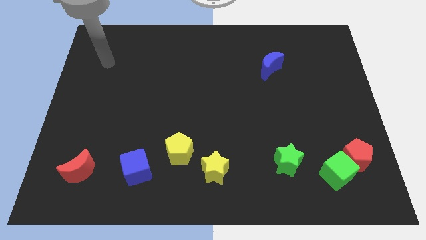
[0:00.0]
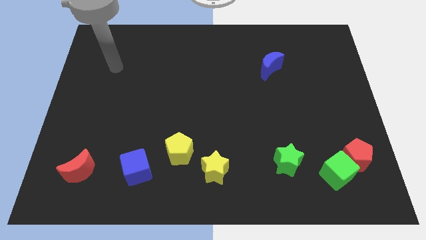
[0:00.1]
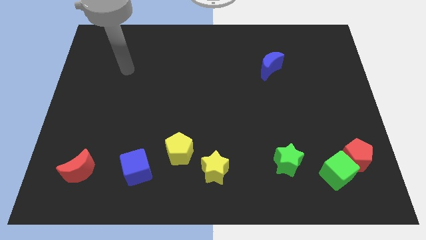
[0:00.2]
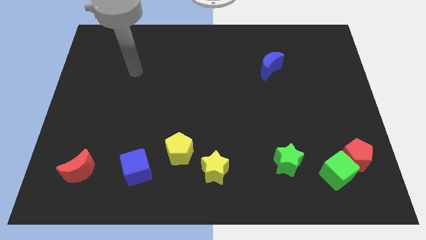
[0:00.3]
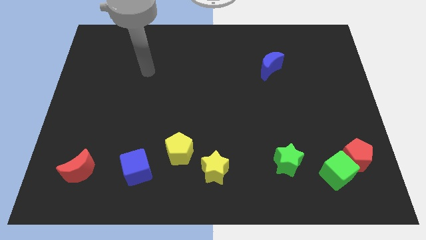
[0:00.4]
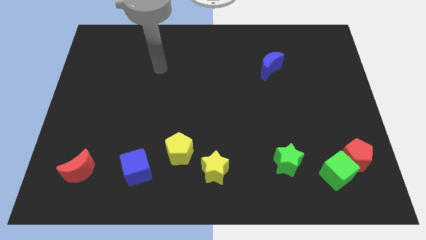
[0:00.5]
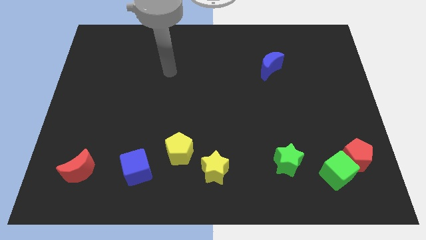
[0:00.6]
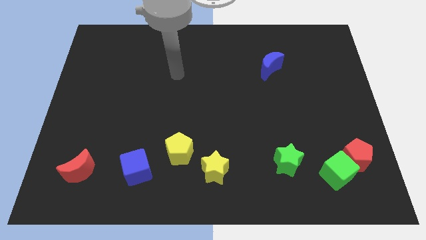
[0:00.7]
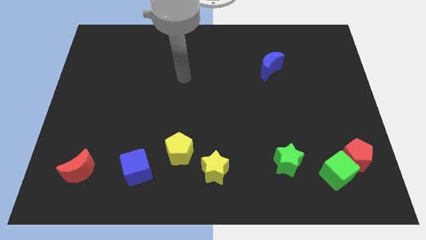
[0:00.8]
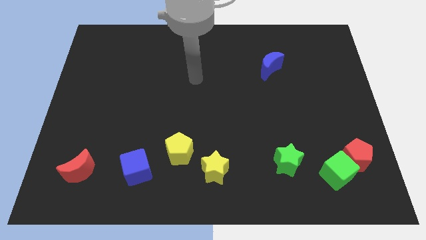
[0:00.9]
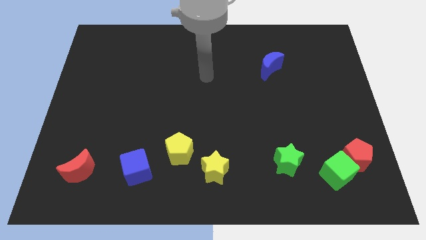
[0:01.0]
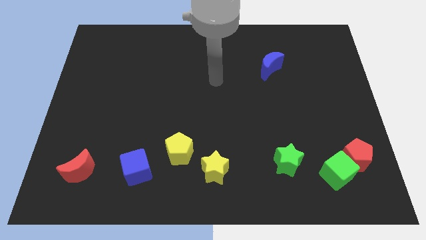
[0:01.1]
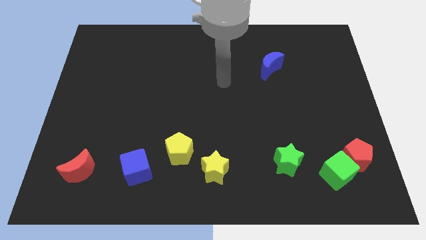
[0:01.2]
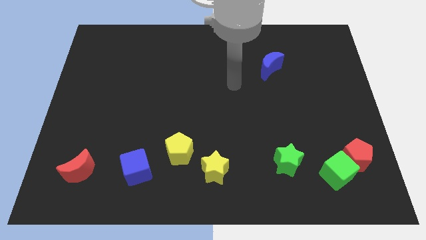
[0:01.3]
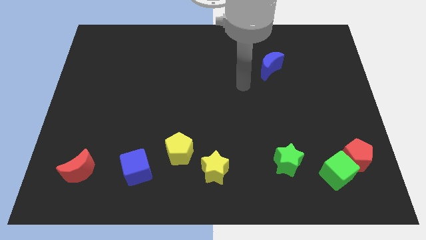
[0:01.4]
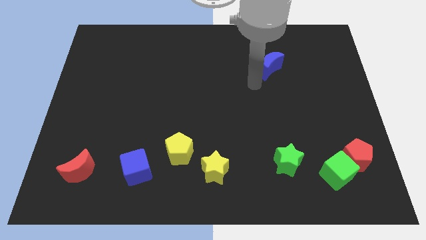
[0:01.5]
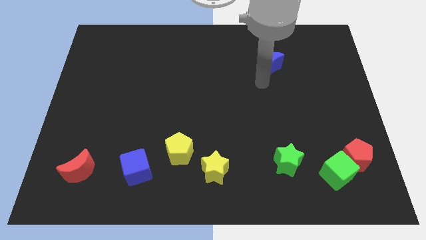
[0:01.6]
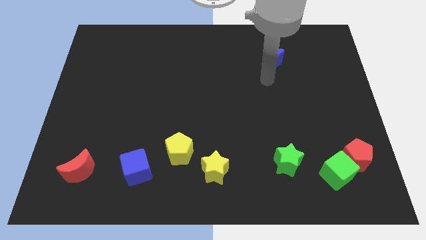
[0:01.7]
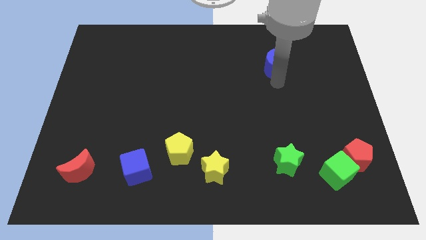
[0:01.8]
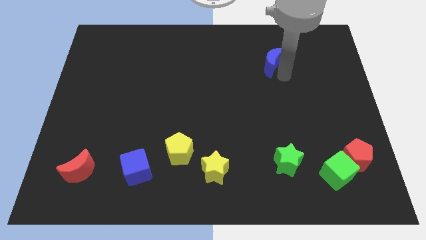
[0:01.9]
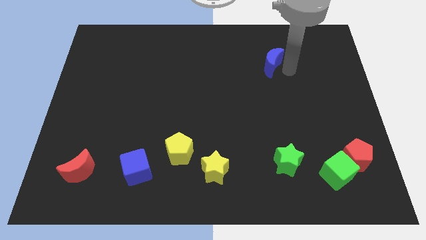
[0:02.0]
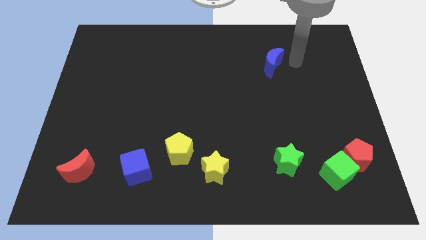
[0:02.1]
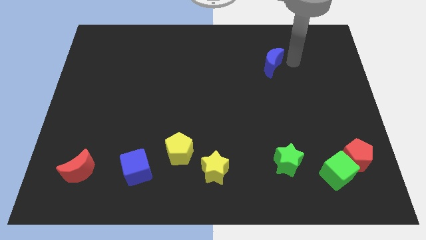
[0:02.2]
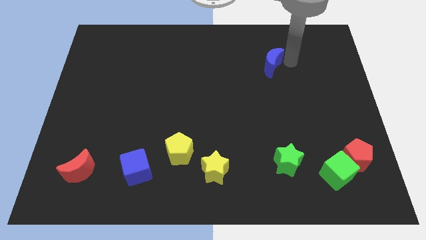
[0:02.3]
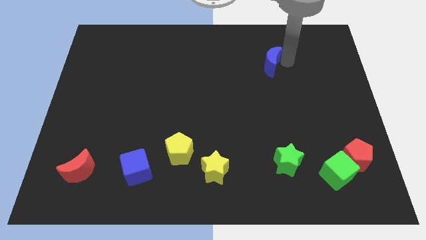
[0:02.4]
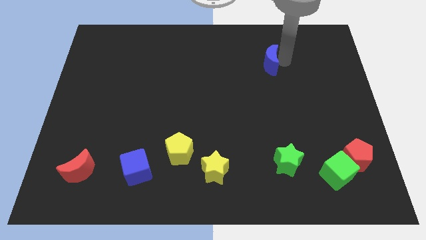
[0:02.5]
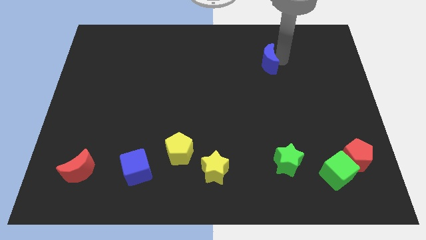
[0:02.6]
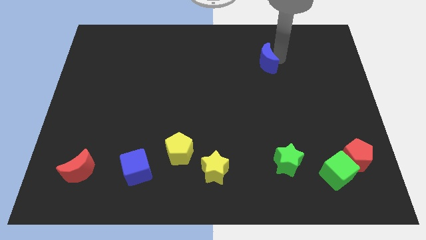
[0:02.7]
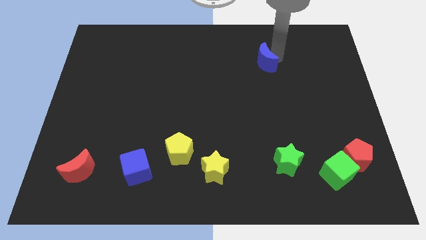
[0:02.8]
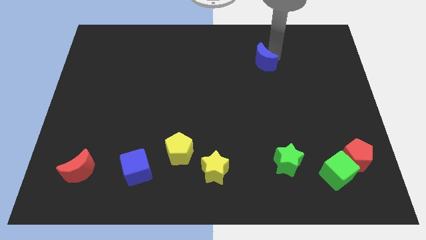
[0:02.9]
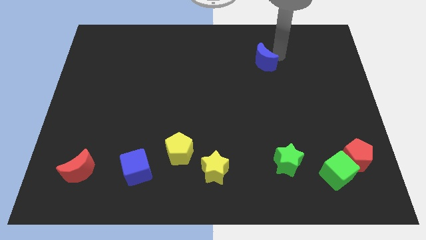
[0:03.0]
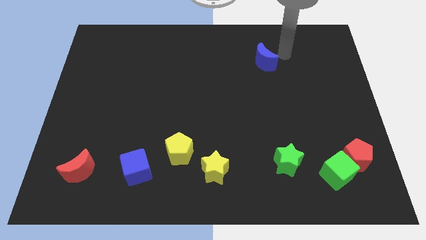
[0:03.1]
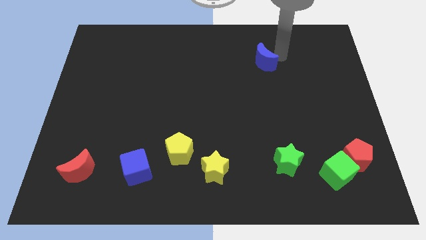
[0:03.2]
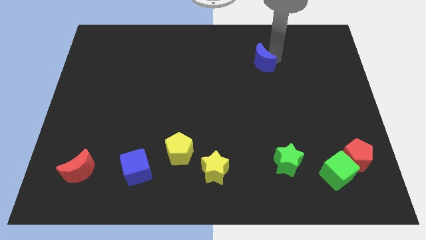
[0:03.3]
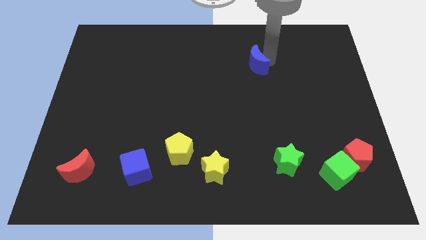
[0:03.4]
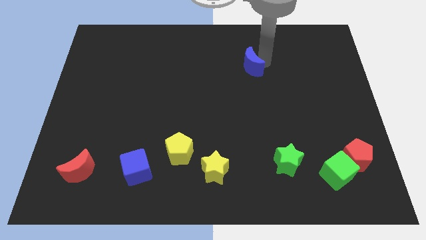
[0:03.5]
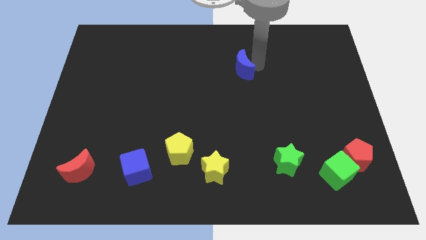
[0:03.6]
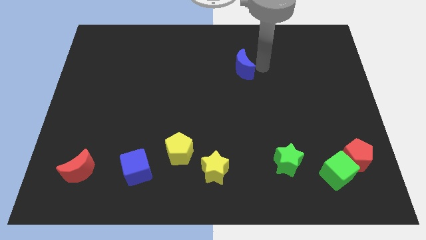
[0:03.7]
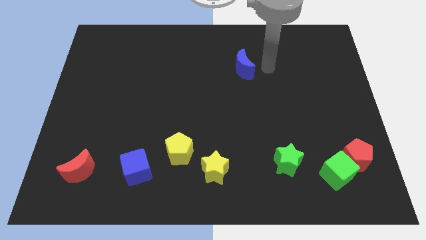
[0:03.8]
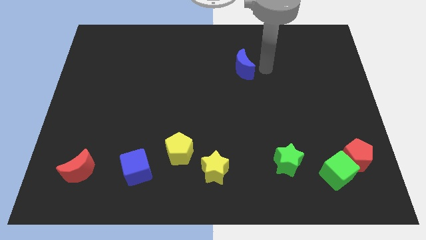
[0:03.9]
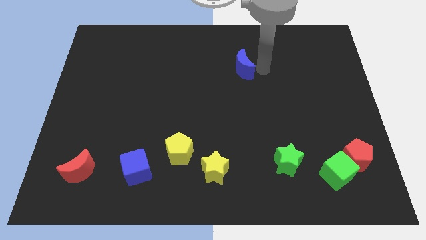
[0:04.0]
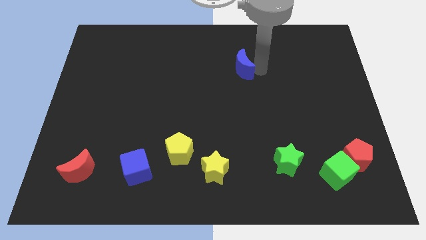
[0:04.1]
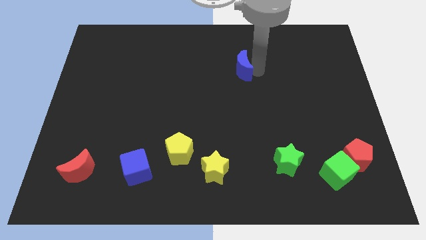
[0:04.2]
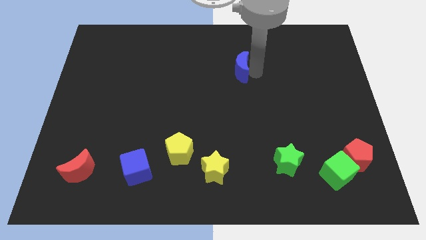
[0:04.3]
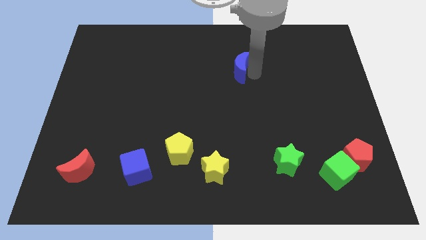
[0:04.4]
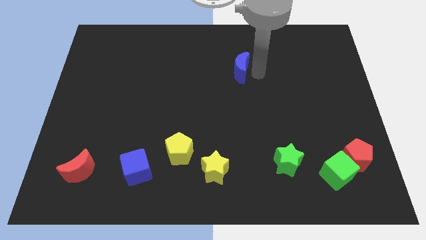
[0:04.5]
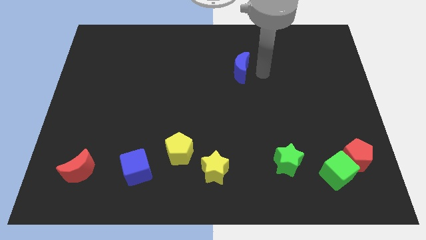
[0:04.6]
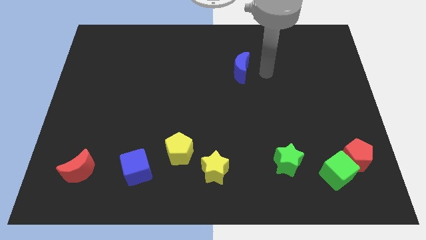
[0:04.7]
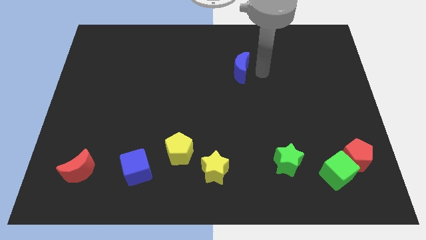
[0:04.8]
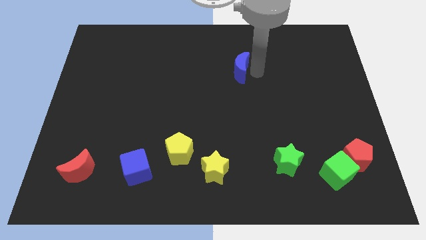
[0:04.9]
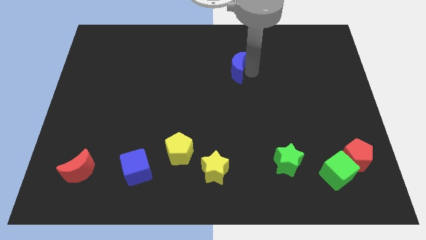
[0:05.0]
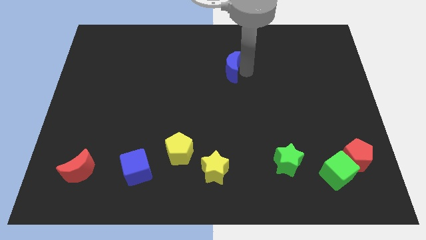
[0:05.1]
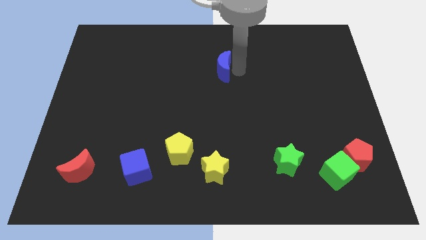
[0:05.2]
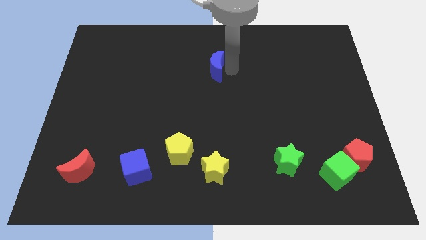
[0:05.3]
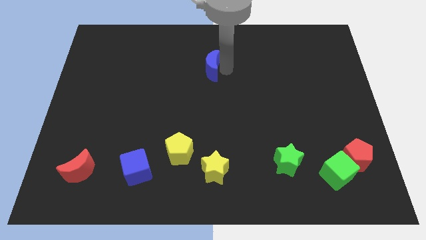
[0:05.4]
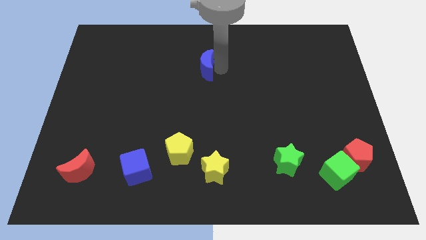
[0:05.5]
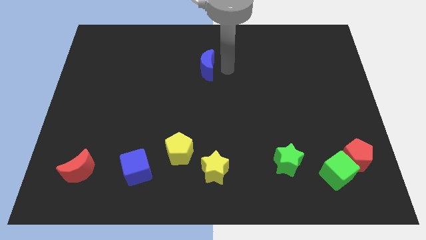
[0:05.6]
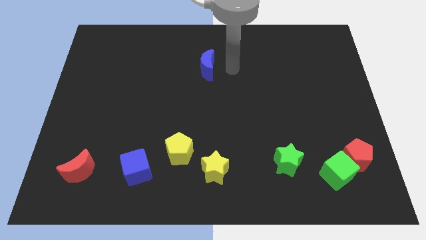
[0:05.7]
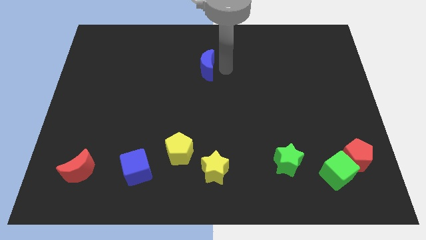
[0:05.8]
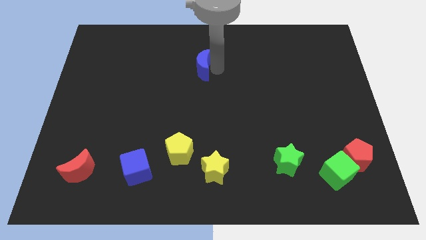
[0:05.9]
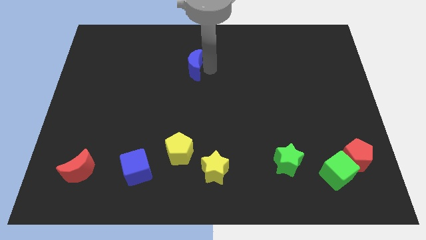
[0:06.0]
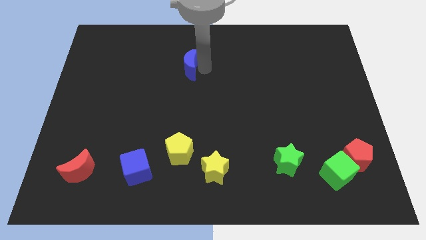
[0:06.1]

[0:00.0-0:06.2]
slide the blue moon left

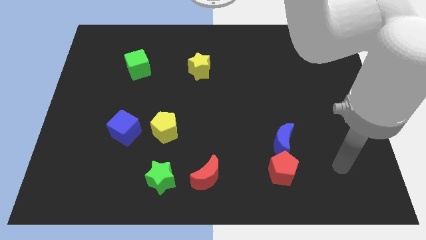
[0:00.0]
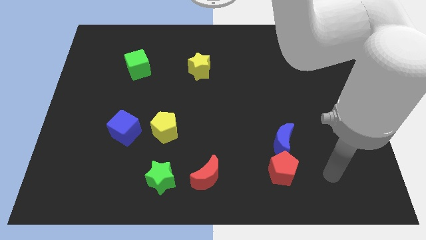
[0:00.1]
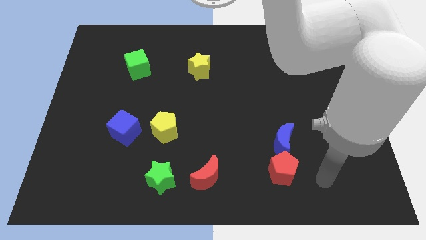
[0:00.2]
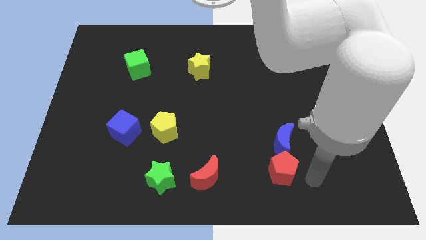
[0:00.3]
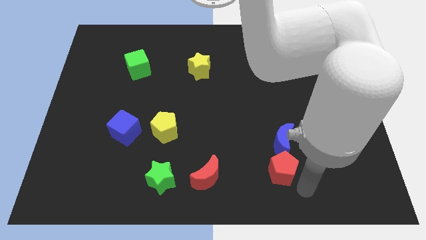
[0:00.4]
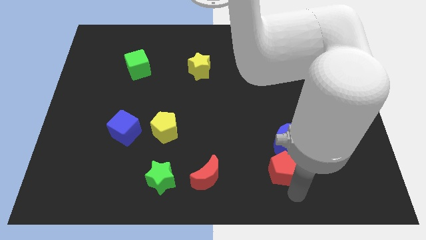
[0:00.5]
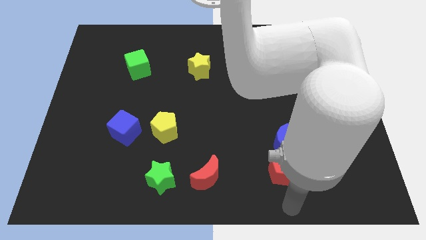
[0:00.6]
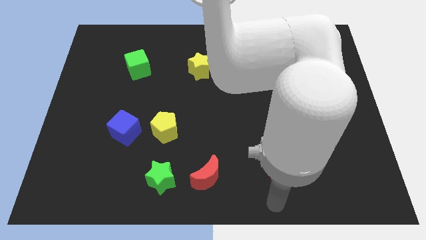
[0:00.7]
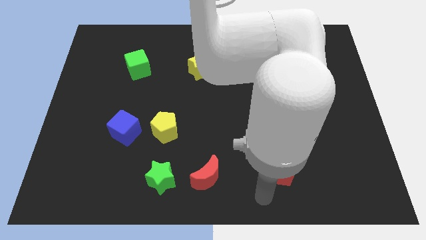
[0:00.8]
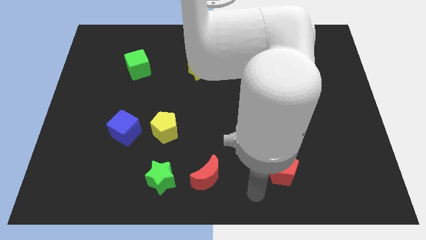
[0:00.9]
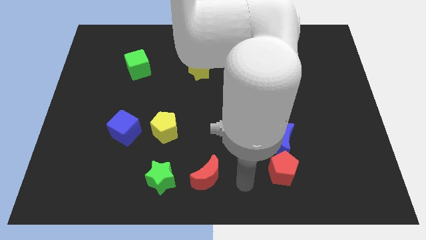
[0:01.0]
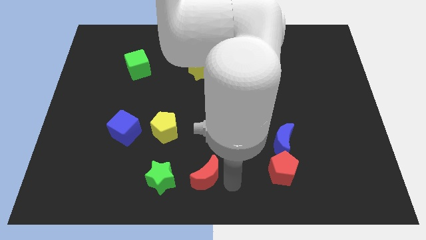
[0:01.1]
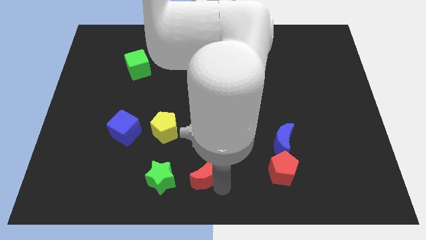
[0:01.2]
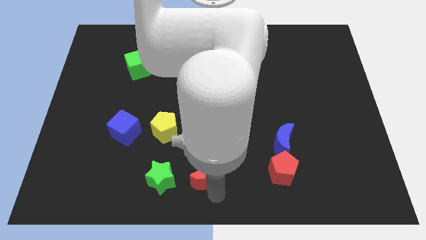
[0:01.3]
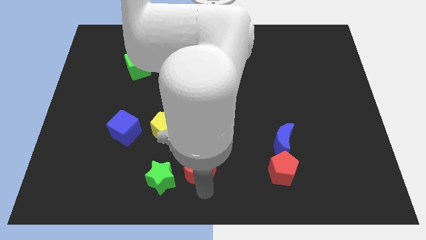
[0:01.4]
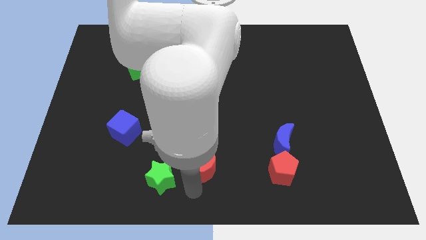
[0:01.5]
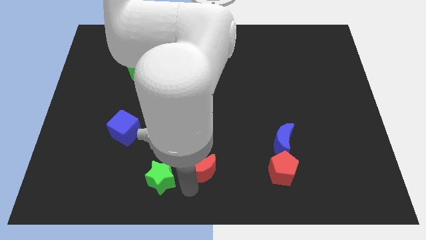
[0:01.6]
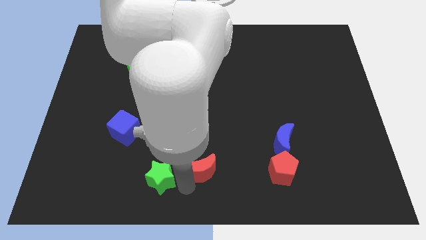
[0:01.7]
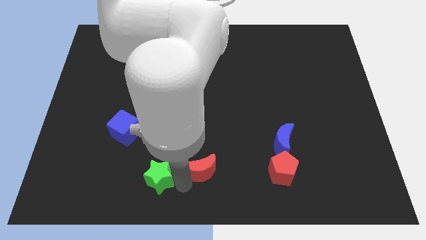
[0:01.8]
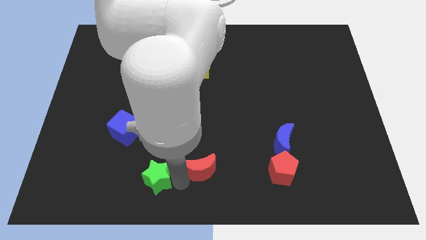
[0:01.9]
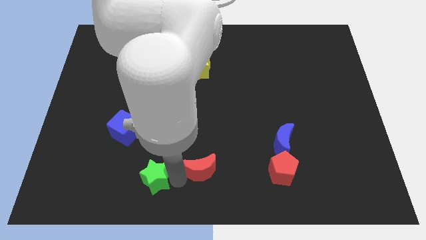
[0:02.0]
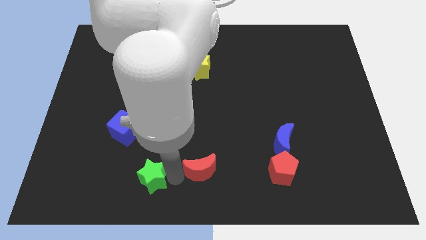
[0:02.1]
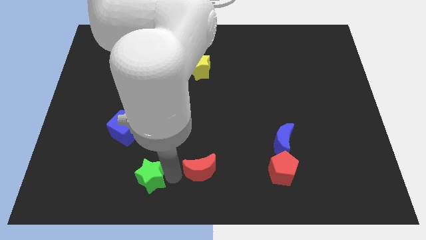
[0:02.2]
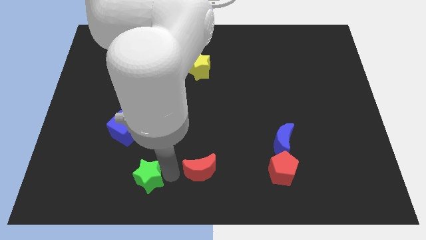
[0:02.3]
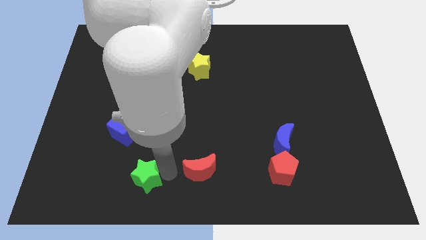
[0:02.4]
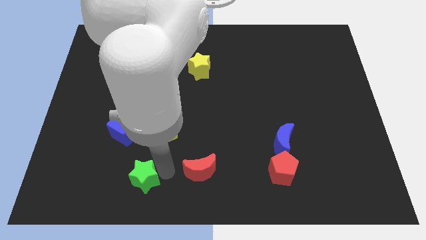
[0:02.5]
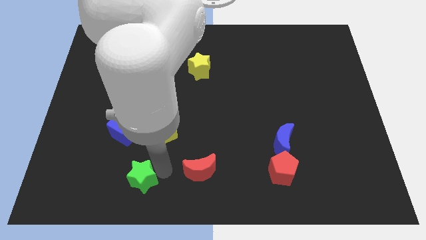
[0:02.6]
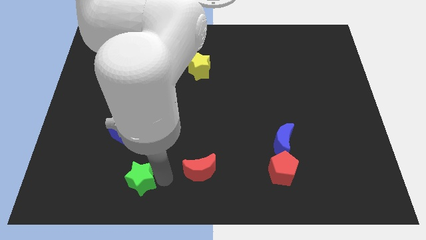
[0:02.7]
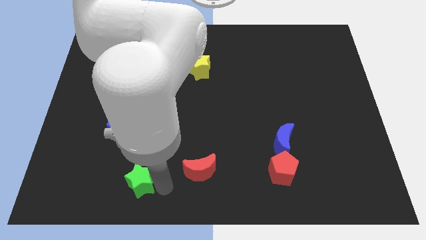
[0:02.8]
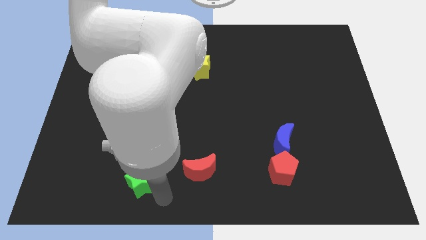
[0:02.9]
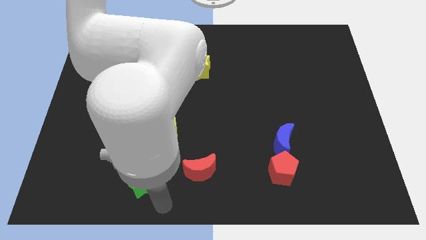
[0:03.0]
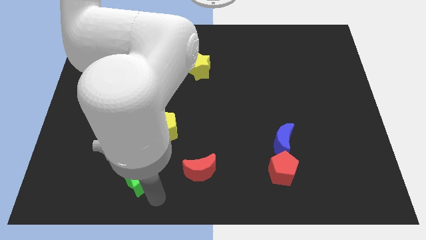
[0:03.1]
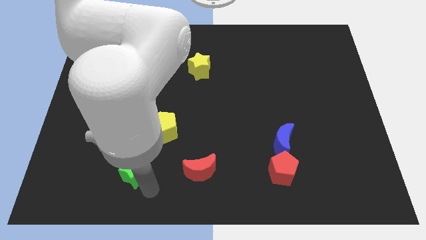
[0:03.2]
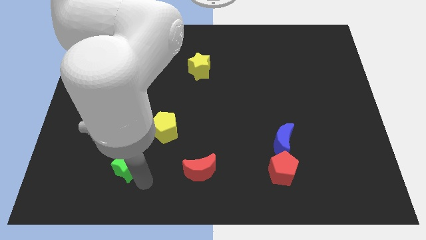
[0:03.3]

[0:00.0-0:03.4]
slightly push the green star up and to the left
